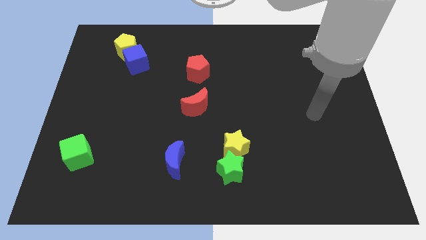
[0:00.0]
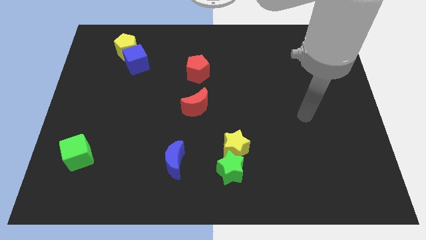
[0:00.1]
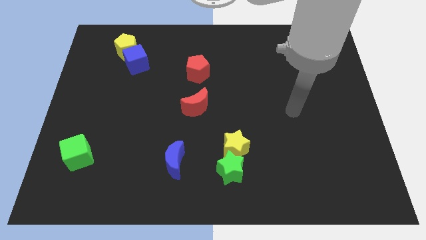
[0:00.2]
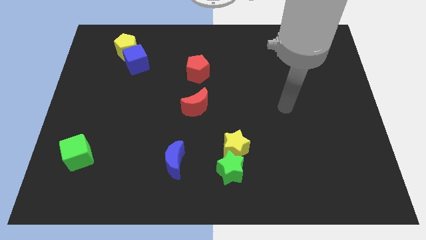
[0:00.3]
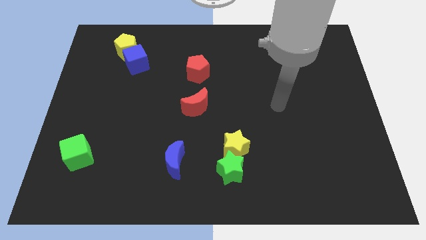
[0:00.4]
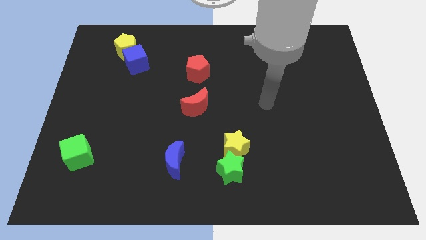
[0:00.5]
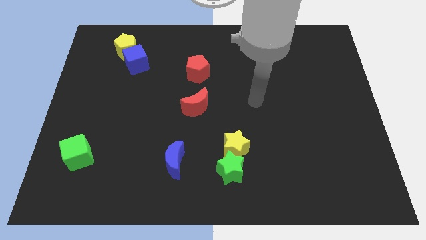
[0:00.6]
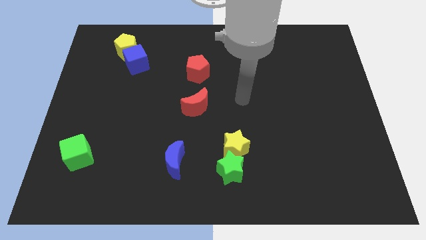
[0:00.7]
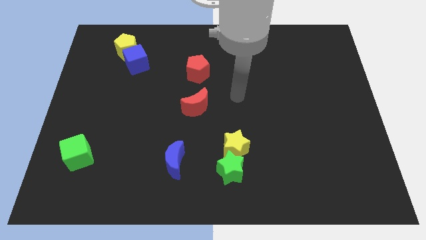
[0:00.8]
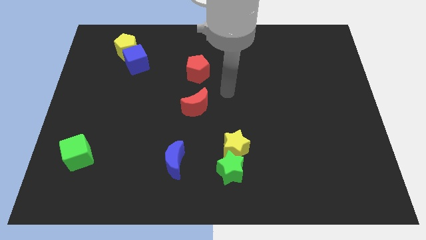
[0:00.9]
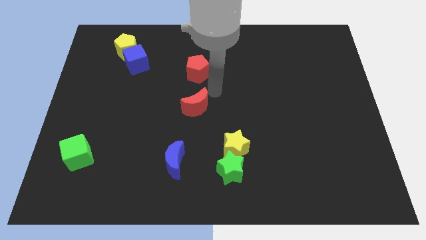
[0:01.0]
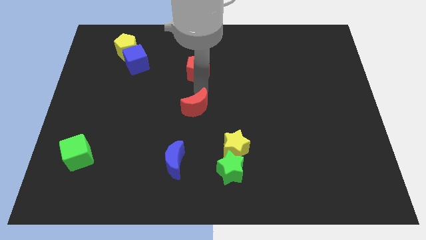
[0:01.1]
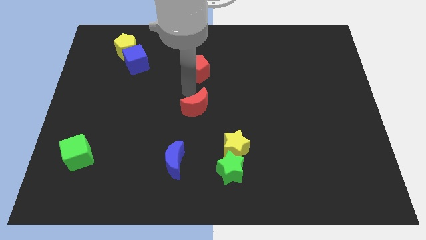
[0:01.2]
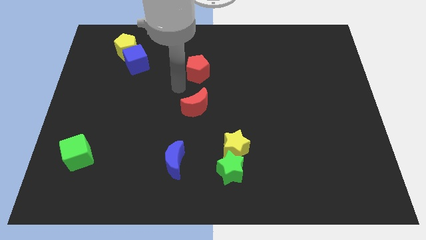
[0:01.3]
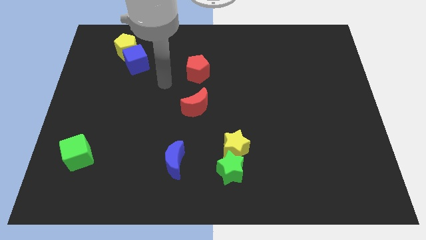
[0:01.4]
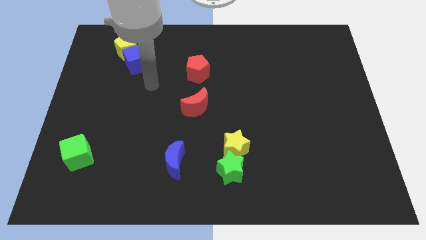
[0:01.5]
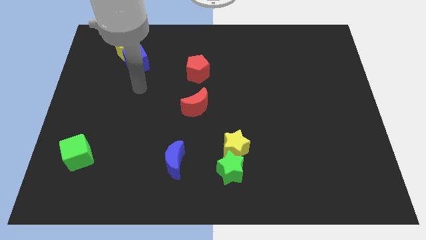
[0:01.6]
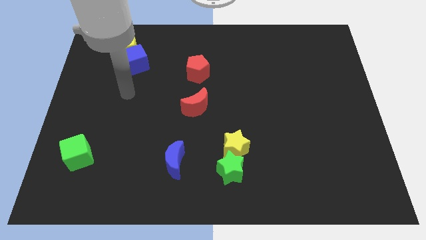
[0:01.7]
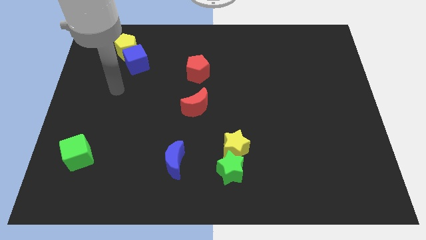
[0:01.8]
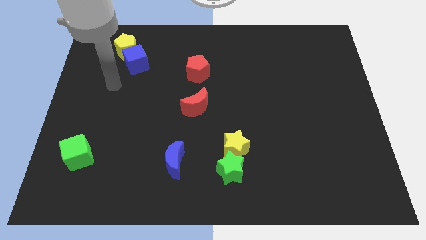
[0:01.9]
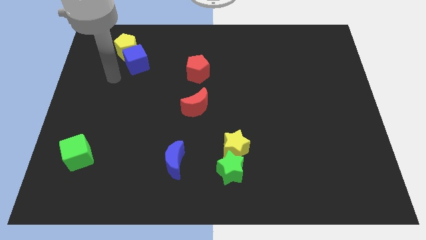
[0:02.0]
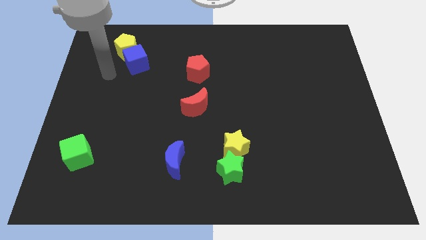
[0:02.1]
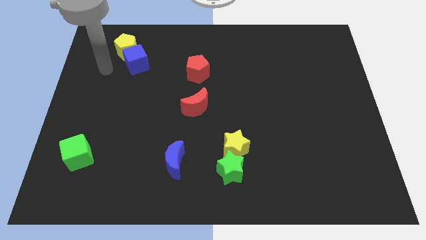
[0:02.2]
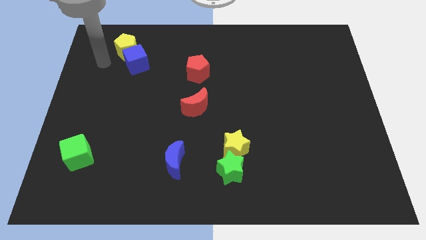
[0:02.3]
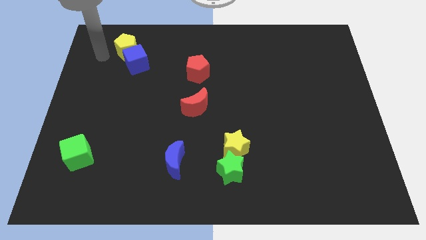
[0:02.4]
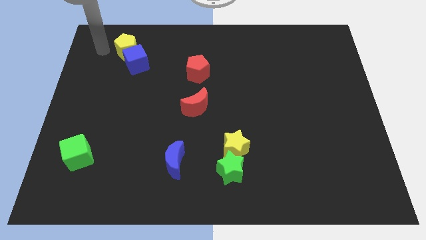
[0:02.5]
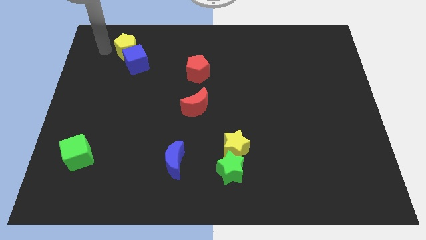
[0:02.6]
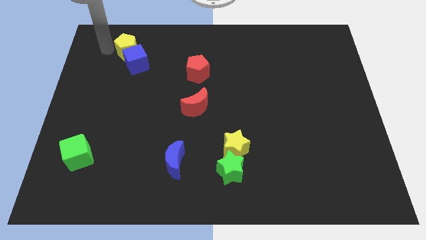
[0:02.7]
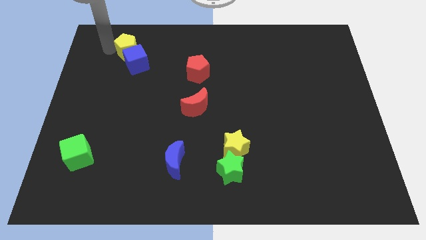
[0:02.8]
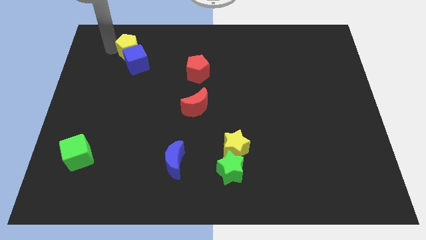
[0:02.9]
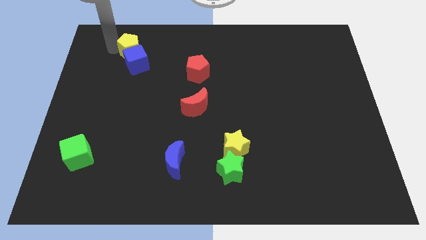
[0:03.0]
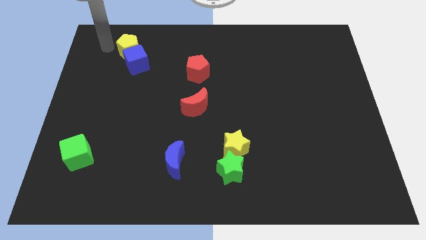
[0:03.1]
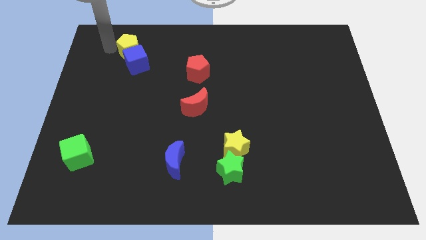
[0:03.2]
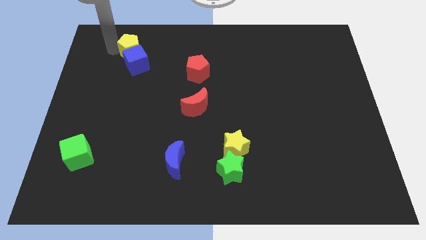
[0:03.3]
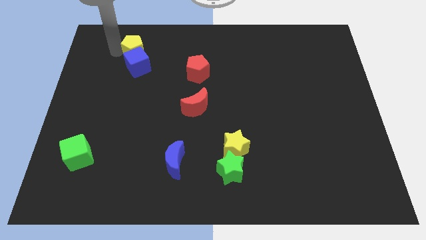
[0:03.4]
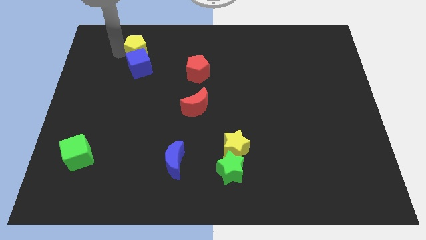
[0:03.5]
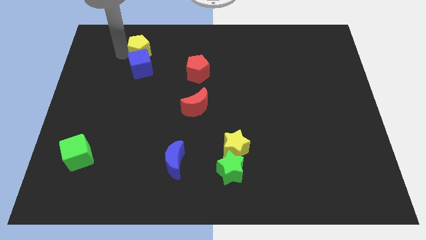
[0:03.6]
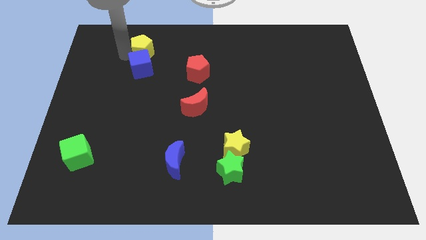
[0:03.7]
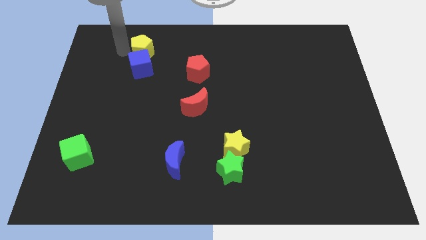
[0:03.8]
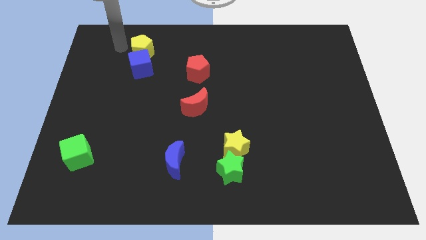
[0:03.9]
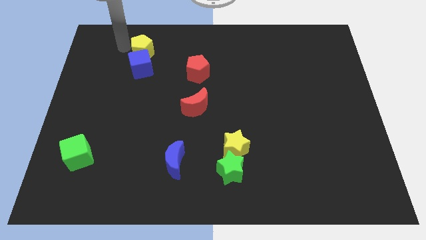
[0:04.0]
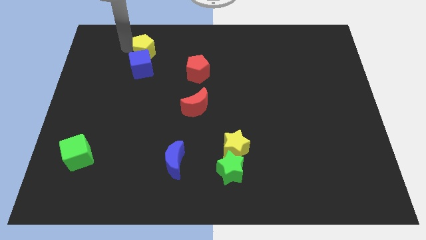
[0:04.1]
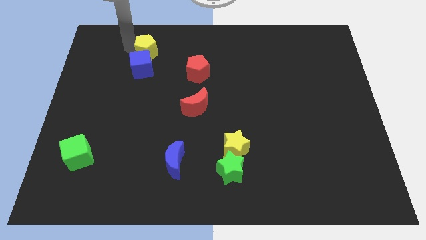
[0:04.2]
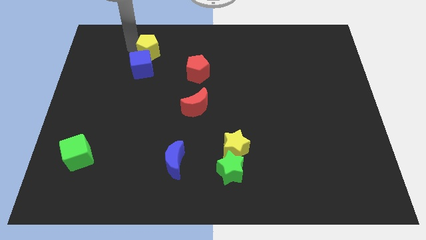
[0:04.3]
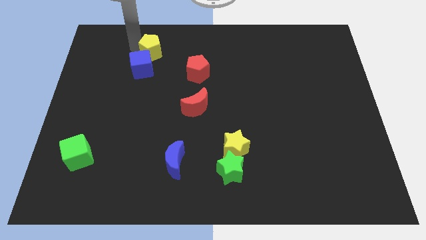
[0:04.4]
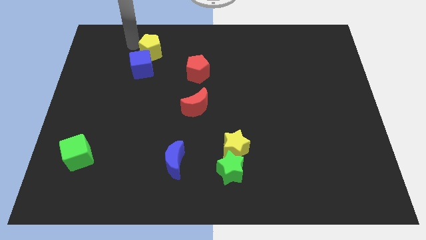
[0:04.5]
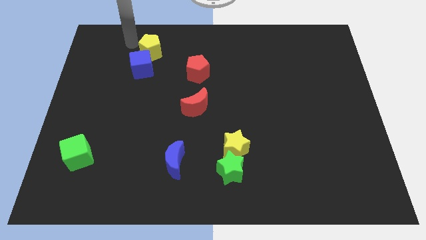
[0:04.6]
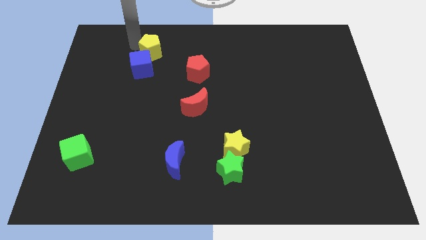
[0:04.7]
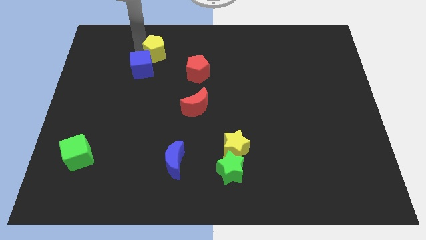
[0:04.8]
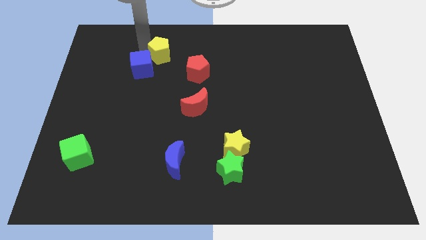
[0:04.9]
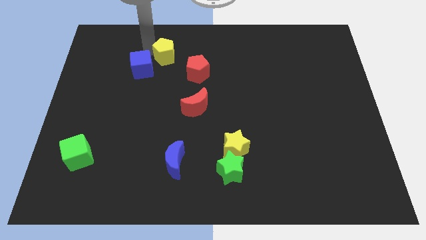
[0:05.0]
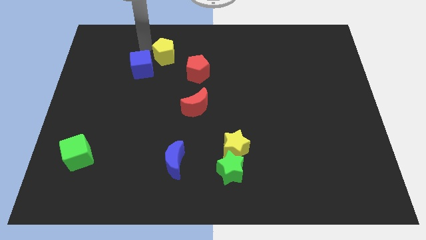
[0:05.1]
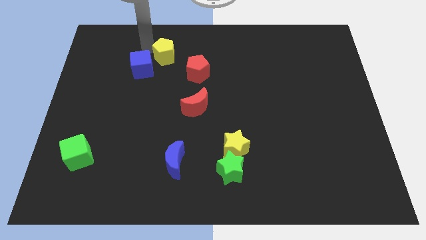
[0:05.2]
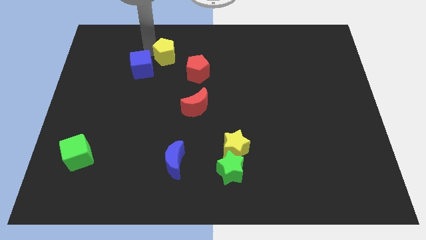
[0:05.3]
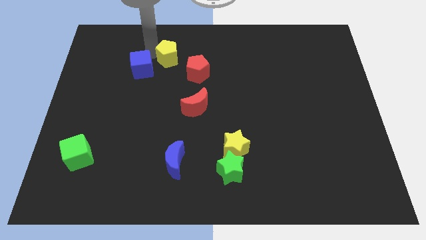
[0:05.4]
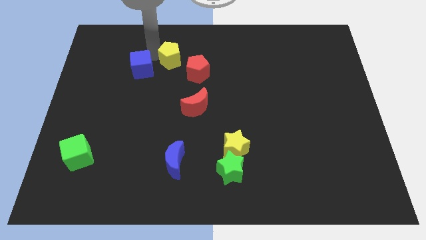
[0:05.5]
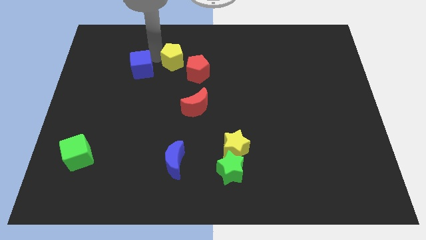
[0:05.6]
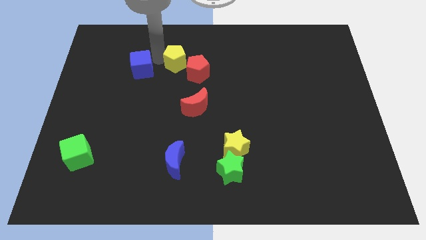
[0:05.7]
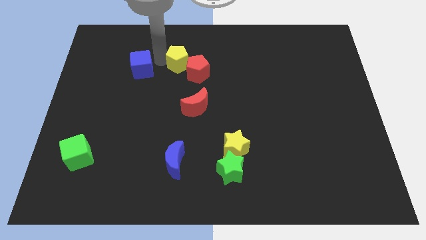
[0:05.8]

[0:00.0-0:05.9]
move the yellow pentagon to the red pentagon

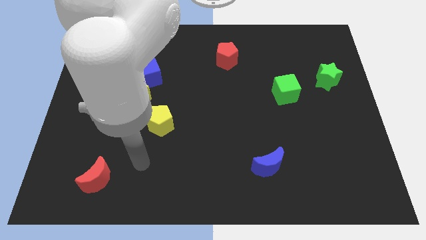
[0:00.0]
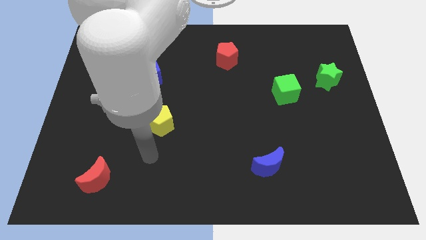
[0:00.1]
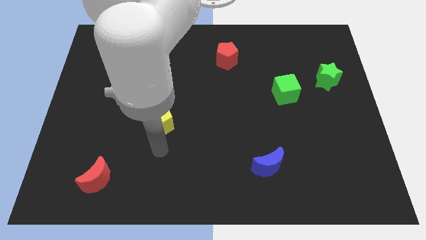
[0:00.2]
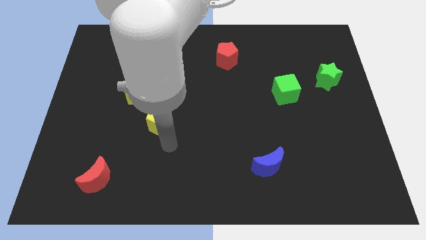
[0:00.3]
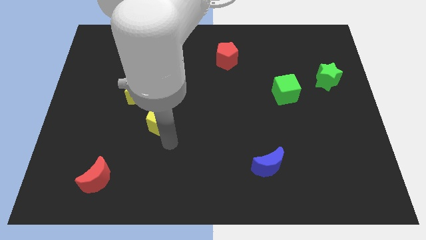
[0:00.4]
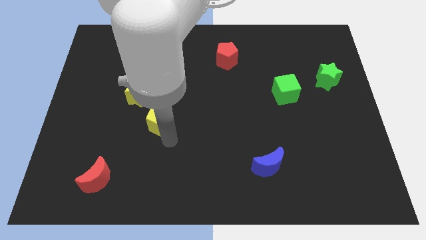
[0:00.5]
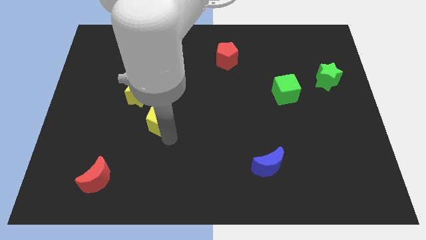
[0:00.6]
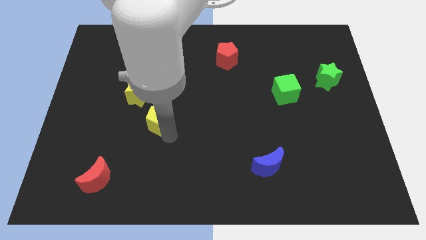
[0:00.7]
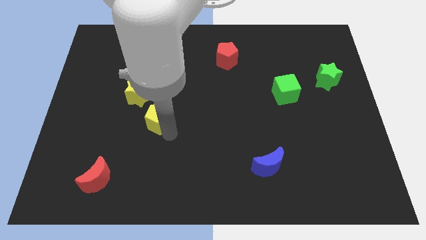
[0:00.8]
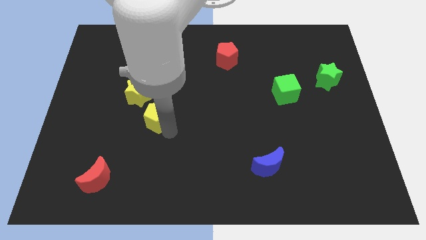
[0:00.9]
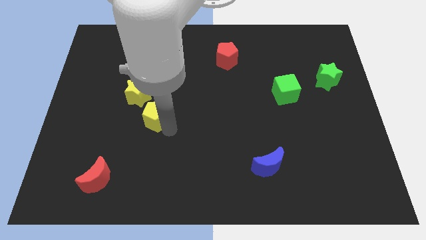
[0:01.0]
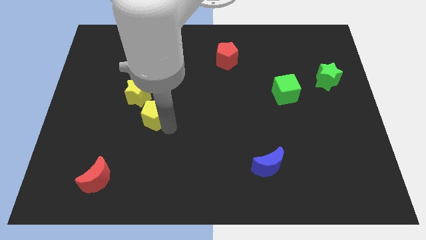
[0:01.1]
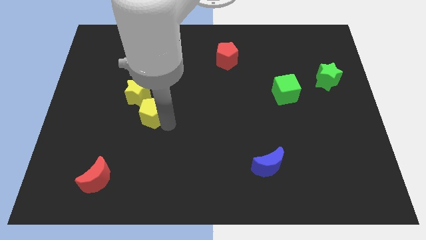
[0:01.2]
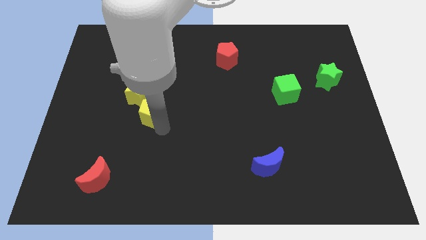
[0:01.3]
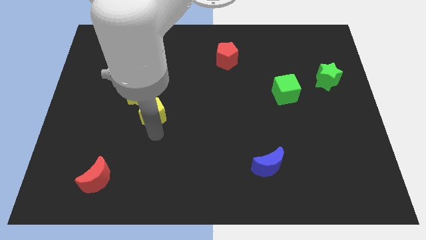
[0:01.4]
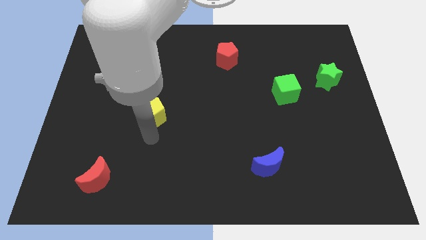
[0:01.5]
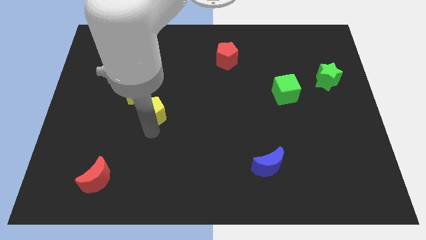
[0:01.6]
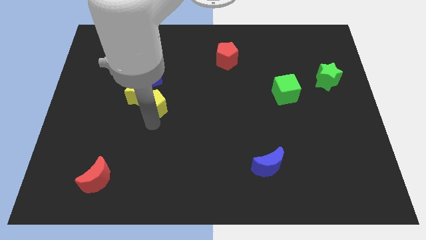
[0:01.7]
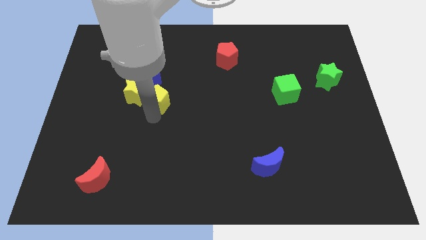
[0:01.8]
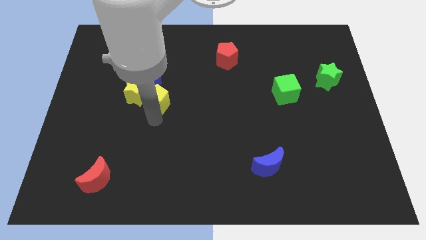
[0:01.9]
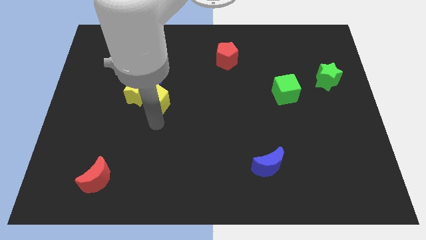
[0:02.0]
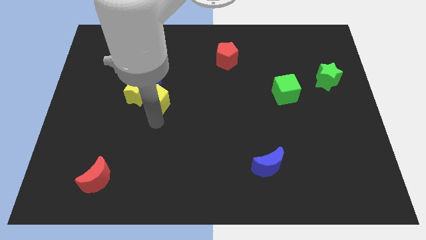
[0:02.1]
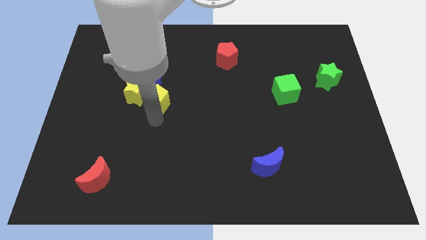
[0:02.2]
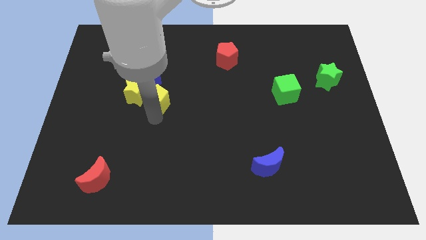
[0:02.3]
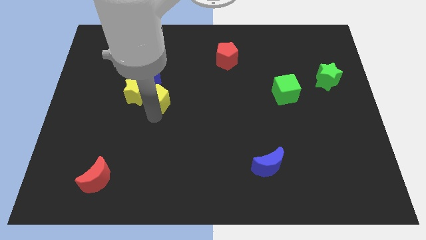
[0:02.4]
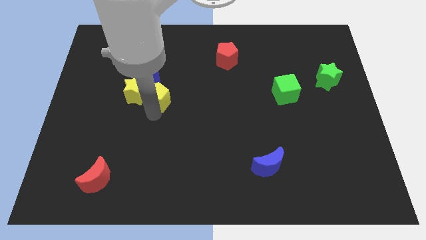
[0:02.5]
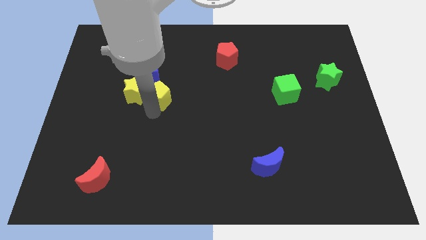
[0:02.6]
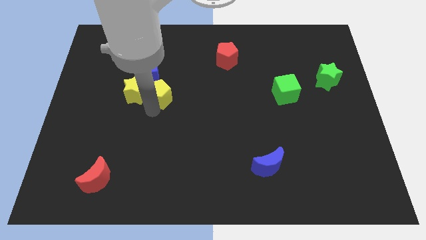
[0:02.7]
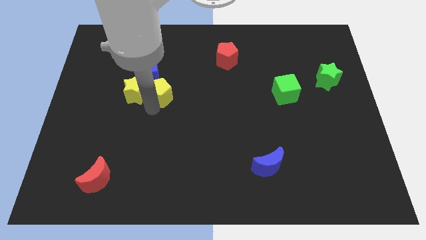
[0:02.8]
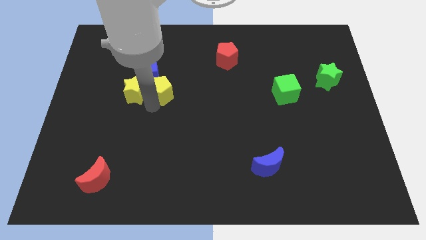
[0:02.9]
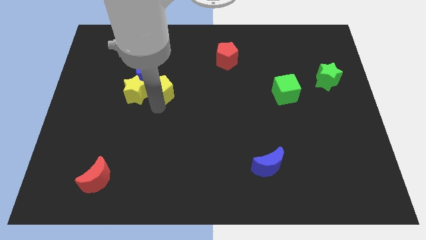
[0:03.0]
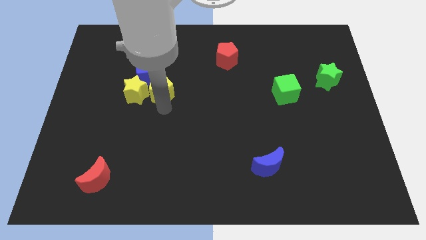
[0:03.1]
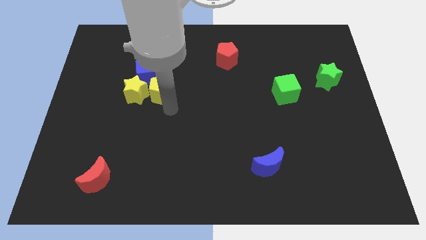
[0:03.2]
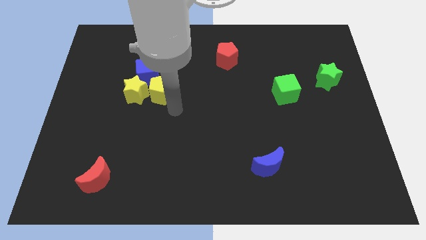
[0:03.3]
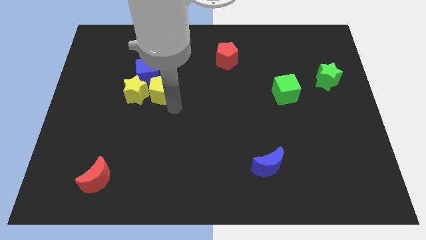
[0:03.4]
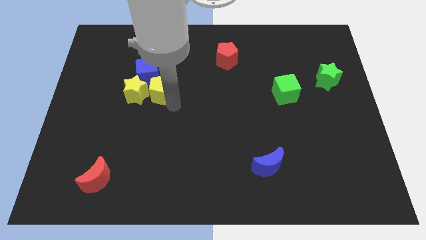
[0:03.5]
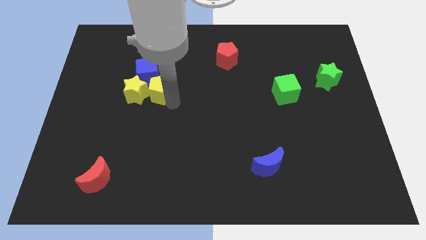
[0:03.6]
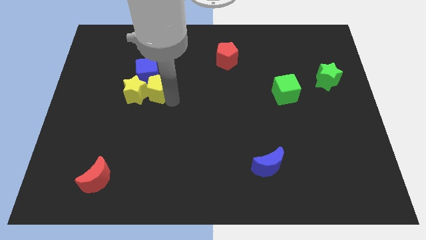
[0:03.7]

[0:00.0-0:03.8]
move the yellow pentagon next to the blue cube
